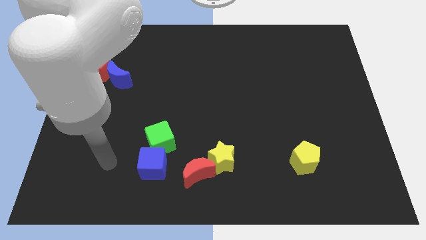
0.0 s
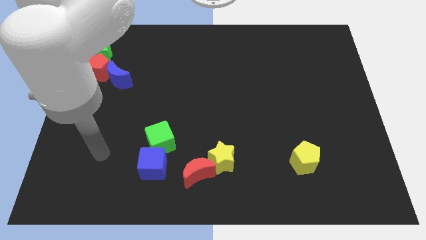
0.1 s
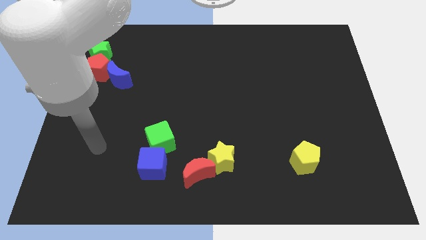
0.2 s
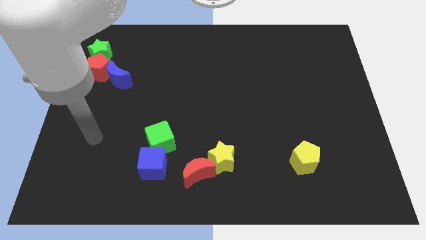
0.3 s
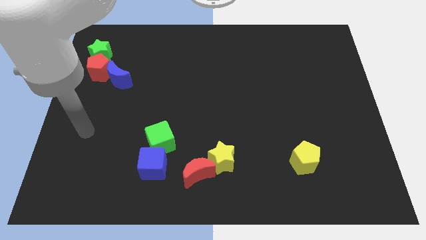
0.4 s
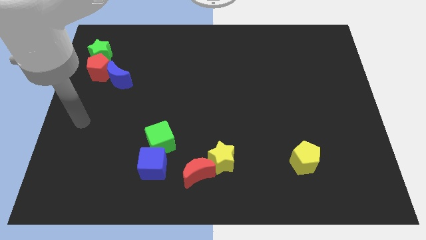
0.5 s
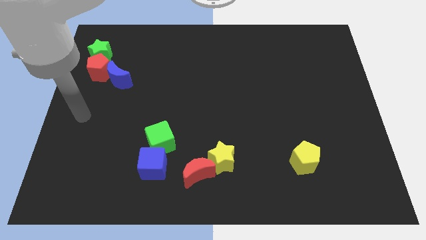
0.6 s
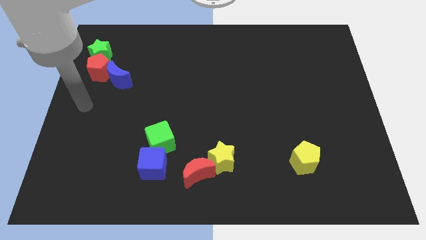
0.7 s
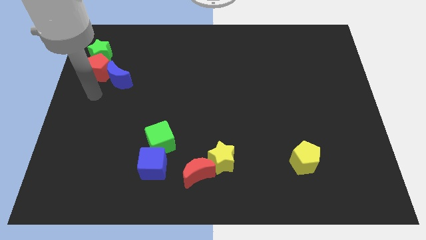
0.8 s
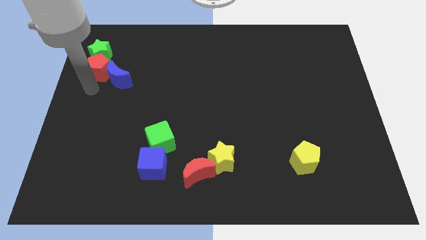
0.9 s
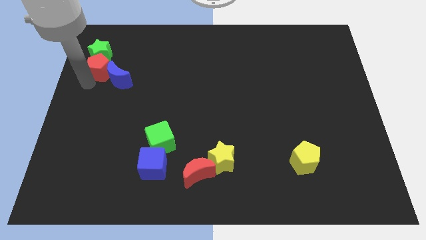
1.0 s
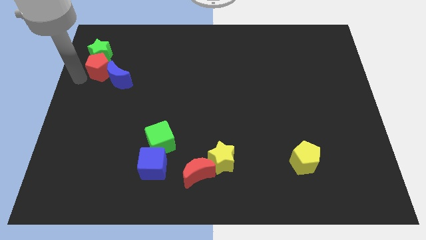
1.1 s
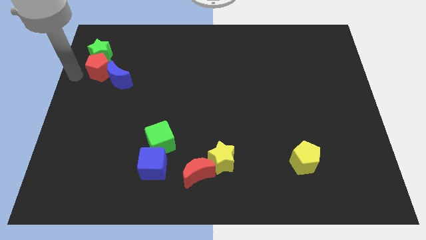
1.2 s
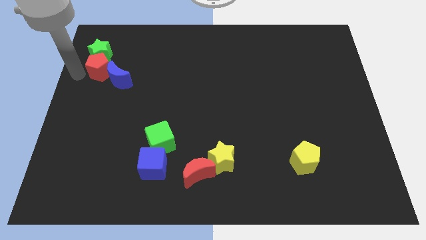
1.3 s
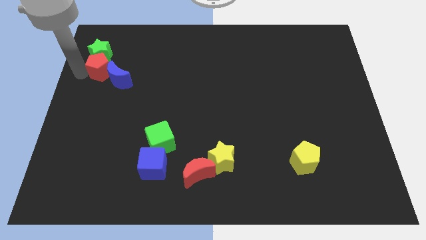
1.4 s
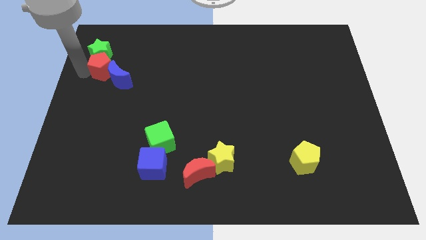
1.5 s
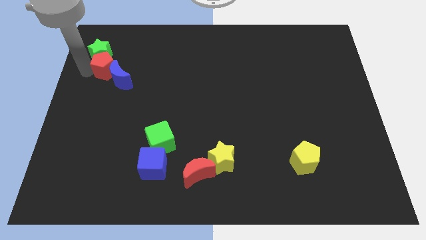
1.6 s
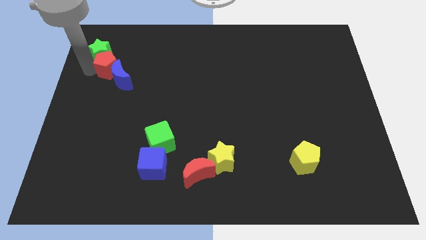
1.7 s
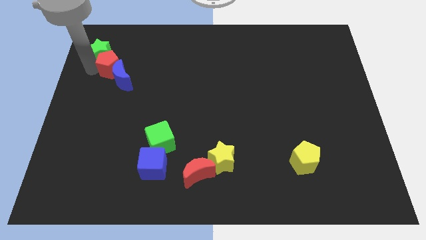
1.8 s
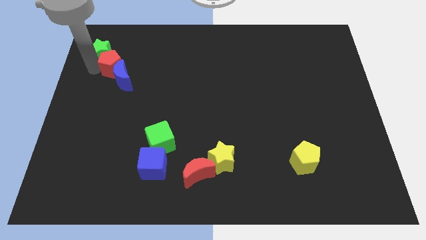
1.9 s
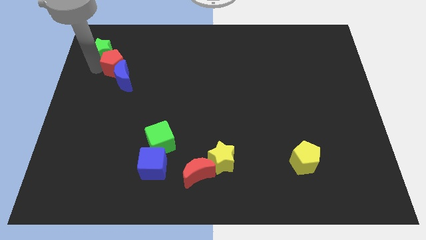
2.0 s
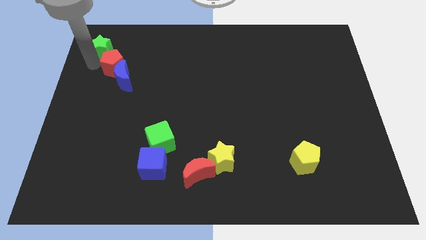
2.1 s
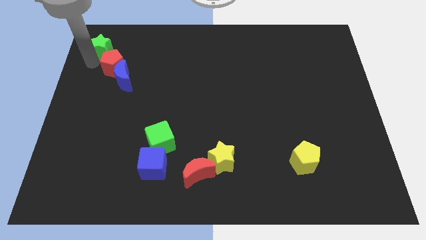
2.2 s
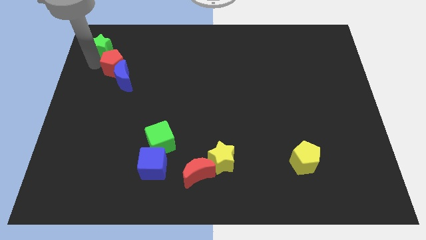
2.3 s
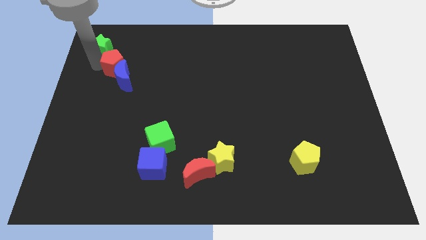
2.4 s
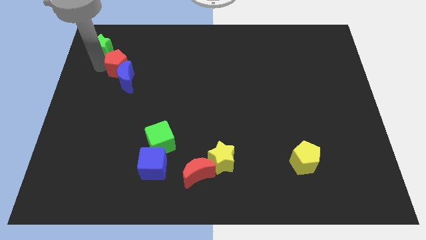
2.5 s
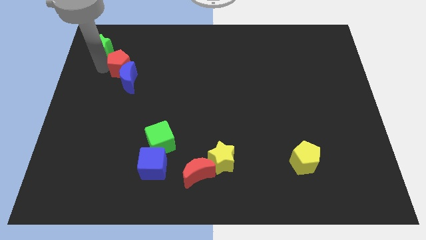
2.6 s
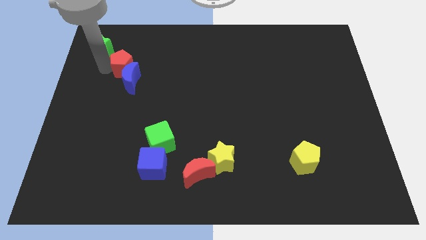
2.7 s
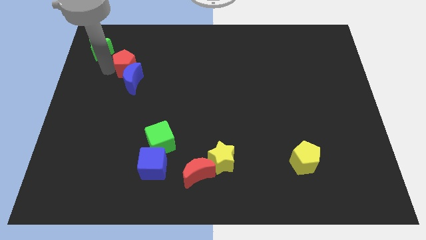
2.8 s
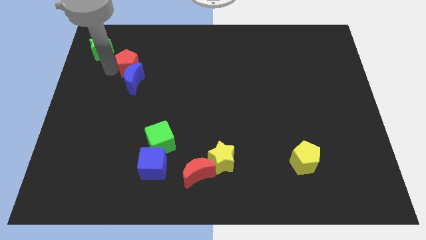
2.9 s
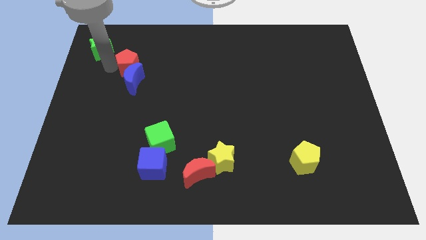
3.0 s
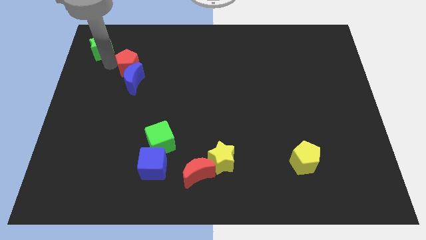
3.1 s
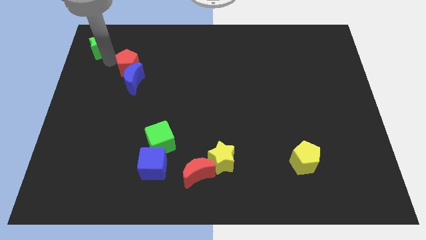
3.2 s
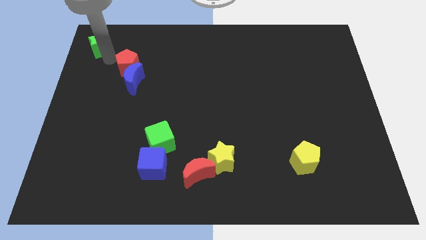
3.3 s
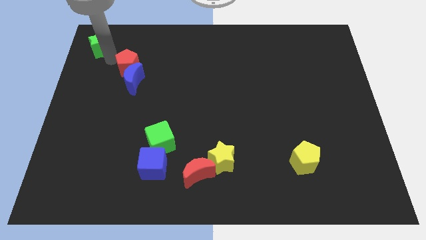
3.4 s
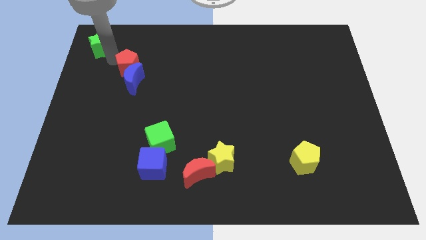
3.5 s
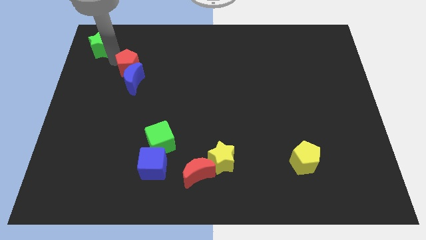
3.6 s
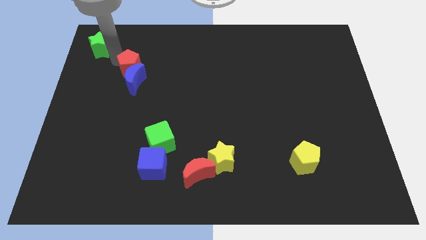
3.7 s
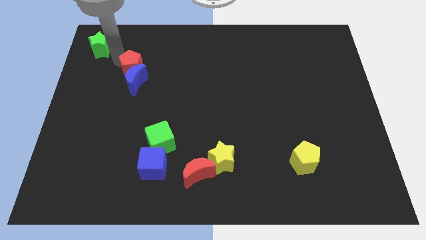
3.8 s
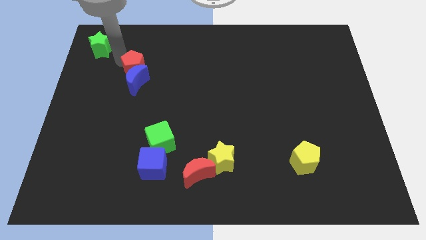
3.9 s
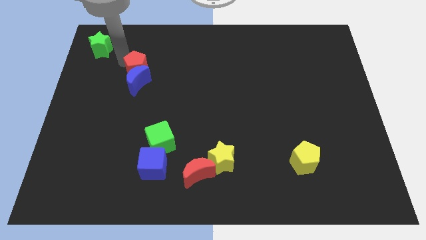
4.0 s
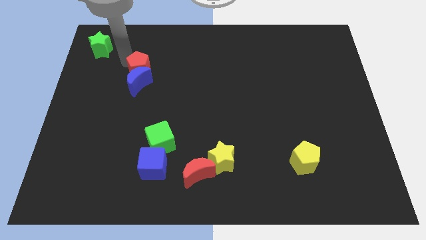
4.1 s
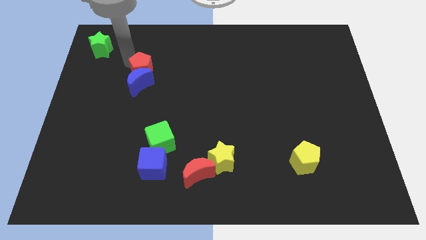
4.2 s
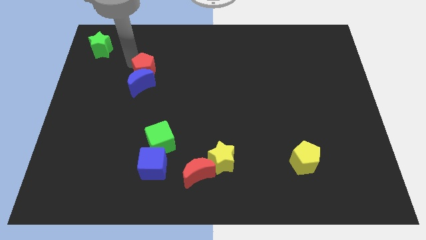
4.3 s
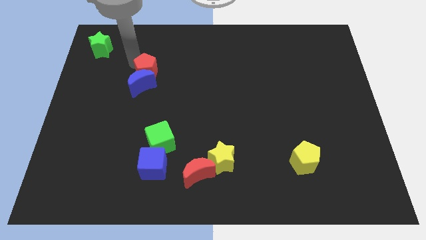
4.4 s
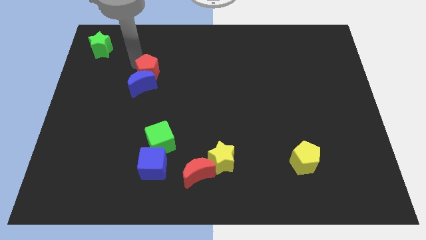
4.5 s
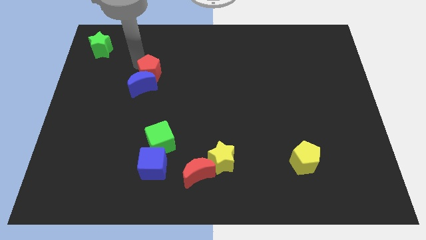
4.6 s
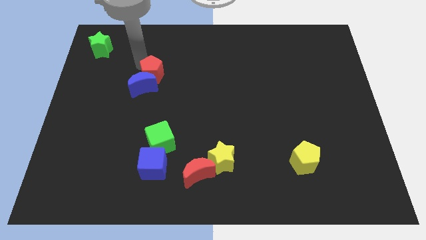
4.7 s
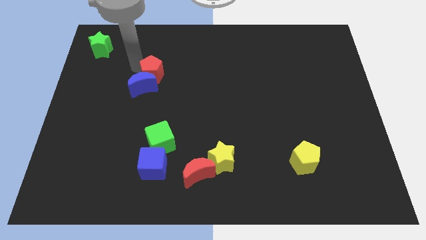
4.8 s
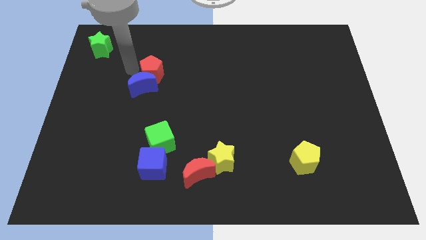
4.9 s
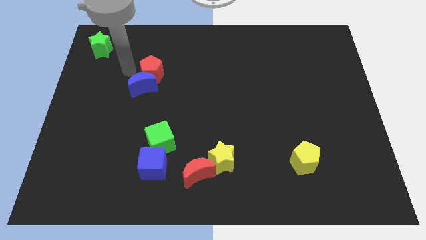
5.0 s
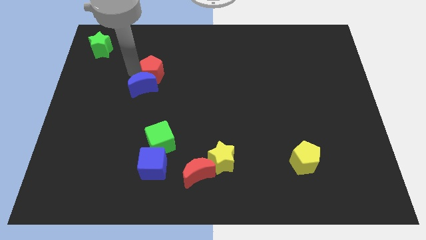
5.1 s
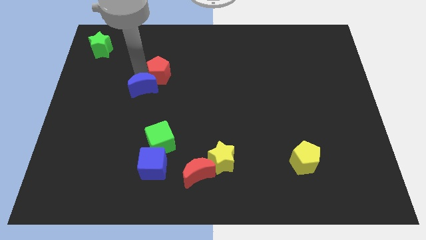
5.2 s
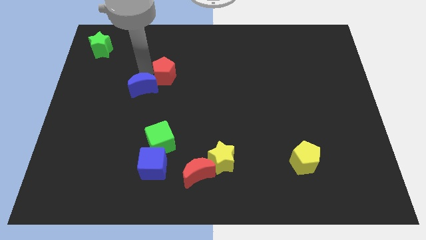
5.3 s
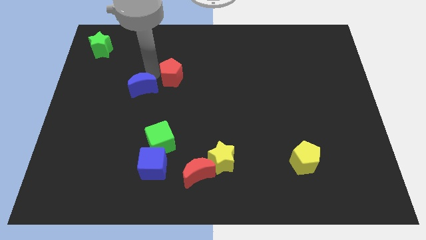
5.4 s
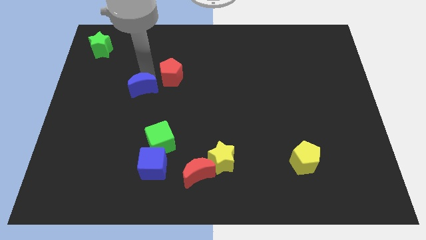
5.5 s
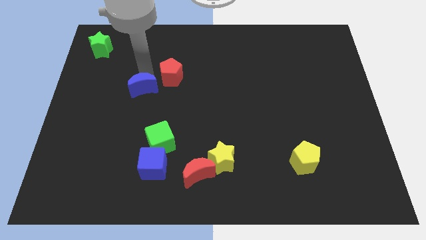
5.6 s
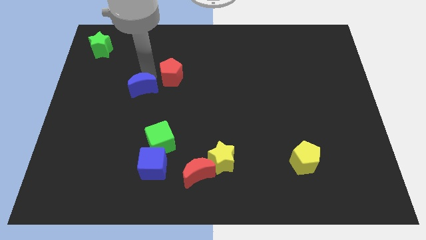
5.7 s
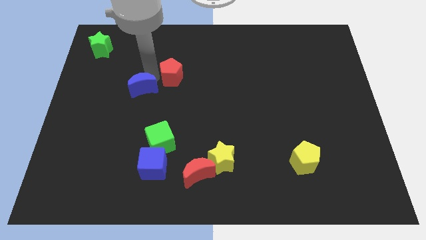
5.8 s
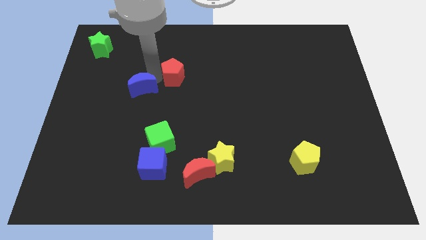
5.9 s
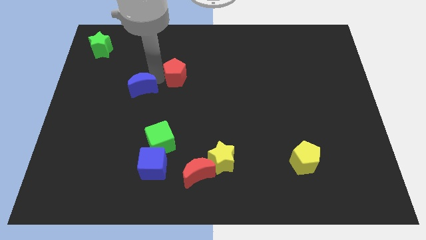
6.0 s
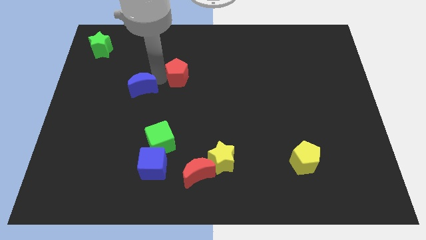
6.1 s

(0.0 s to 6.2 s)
move the red pentagon to the right

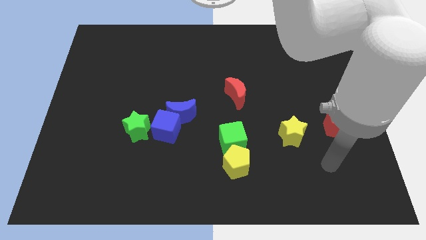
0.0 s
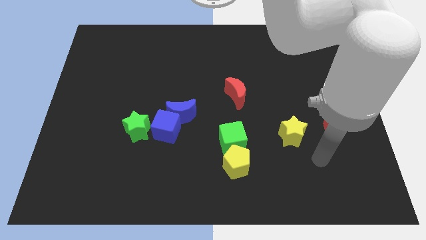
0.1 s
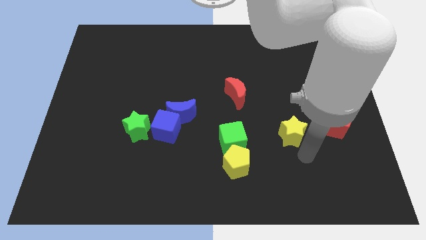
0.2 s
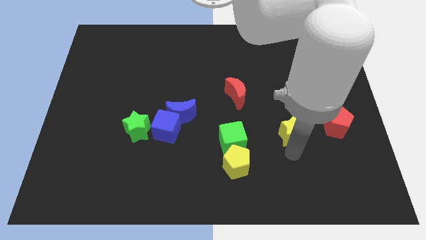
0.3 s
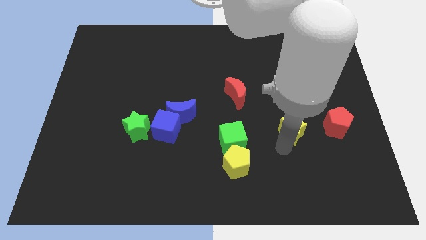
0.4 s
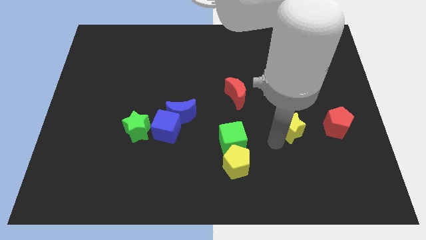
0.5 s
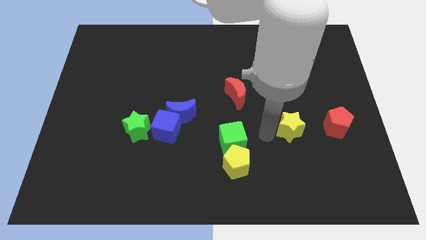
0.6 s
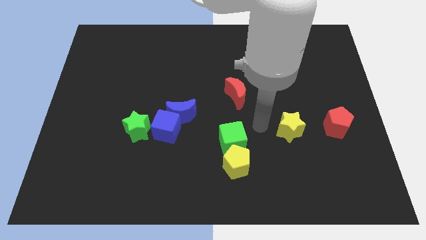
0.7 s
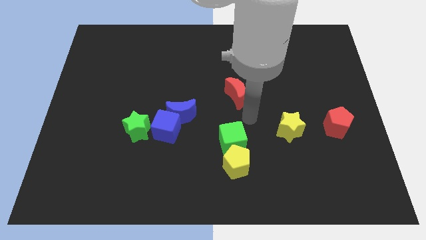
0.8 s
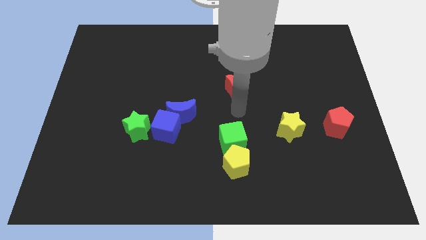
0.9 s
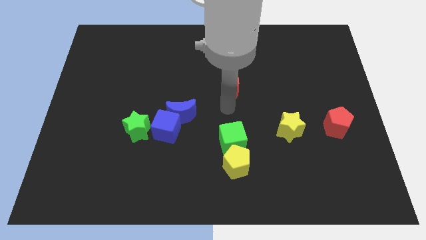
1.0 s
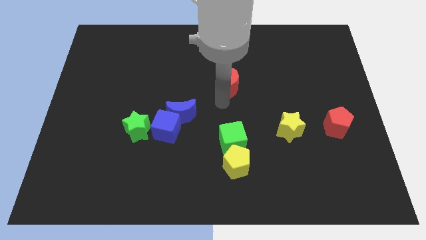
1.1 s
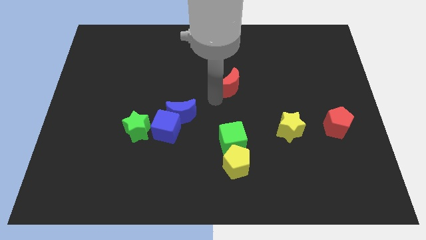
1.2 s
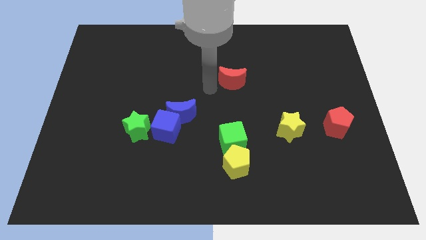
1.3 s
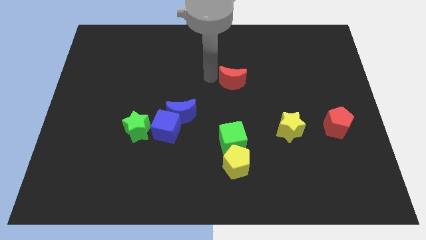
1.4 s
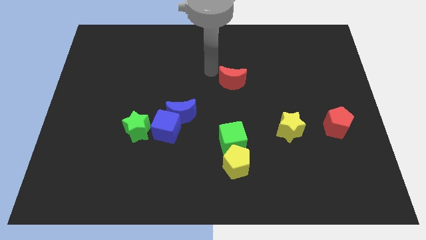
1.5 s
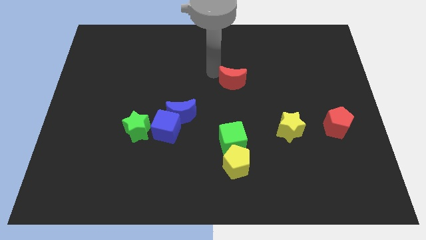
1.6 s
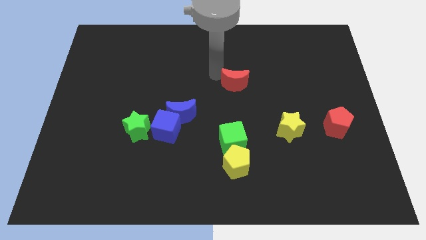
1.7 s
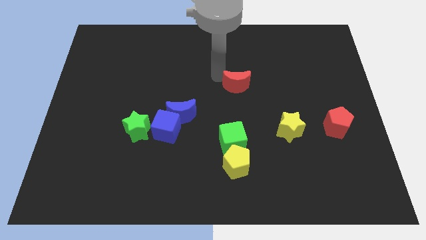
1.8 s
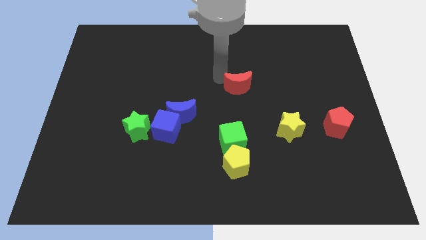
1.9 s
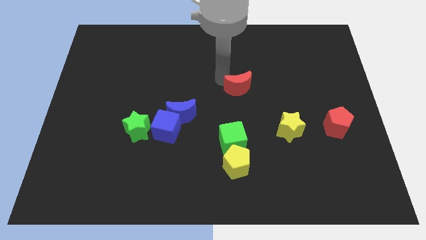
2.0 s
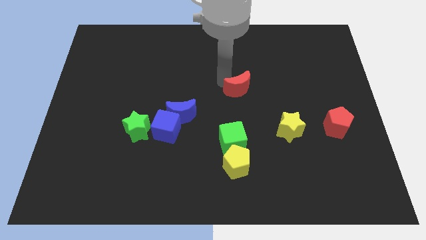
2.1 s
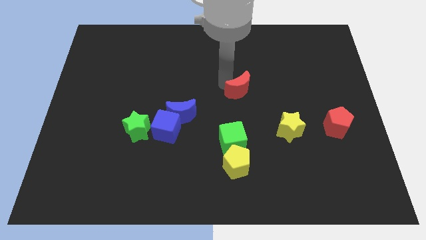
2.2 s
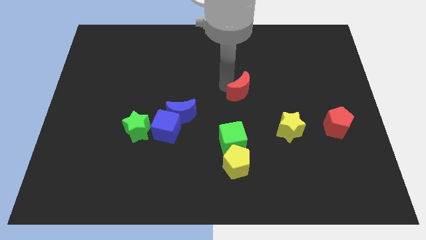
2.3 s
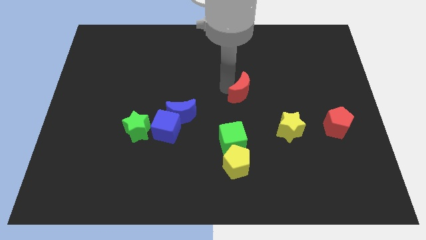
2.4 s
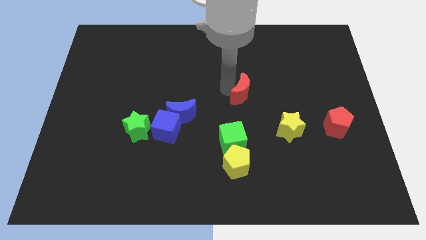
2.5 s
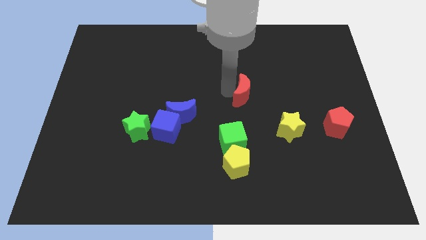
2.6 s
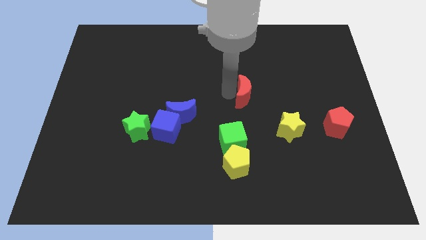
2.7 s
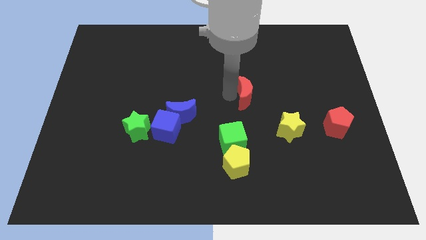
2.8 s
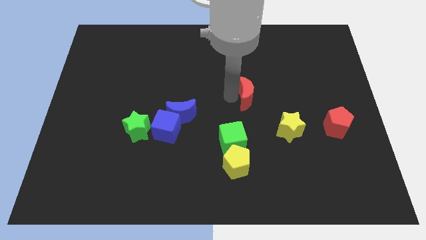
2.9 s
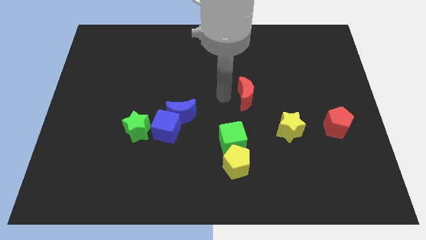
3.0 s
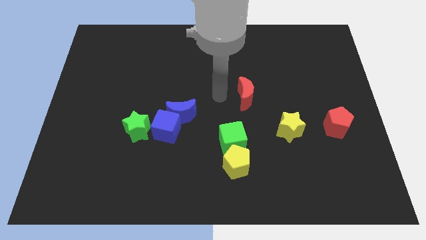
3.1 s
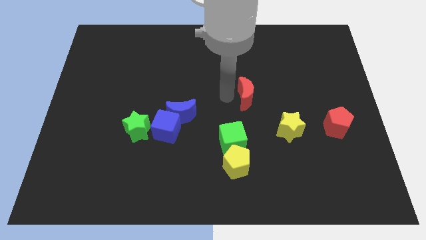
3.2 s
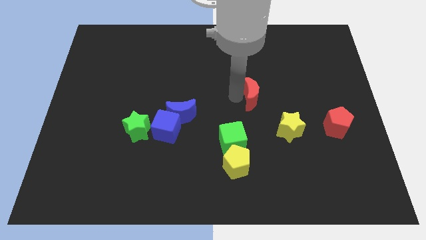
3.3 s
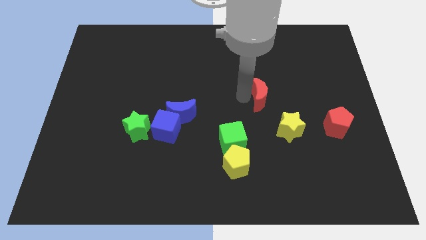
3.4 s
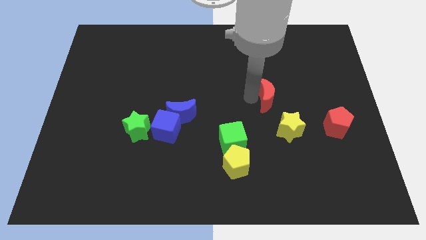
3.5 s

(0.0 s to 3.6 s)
slide the red moon somewhat right
